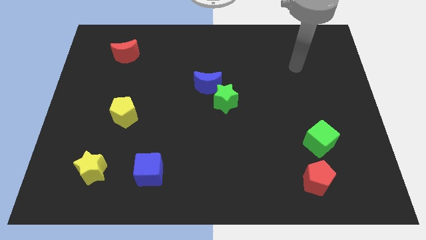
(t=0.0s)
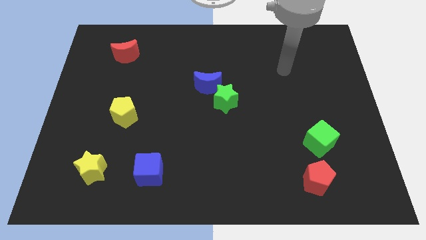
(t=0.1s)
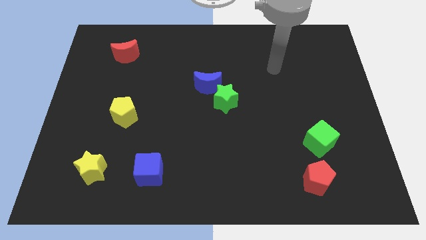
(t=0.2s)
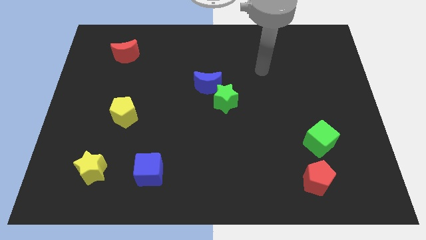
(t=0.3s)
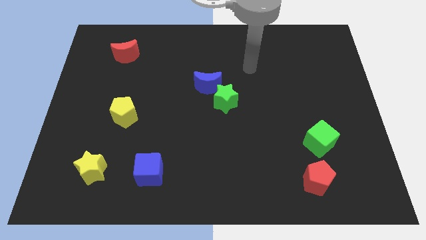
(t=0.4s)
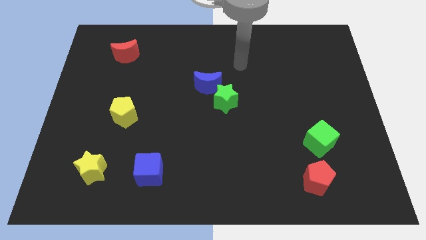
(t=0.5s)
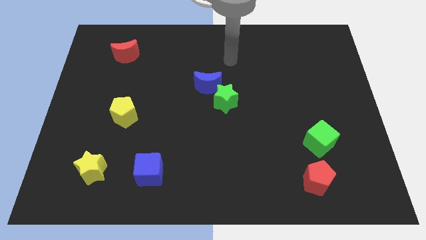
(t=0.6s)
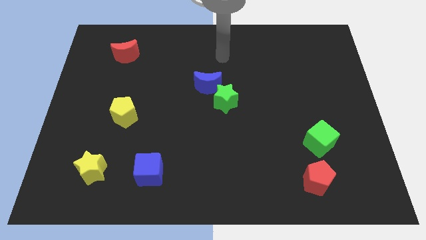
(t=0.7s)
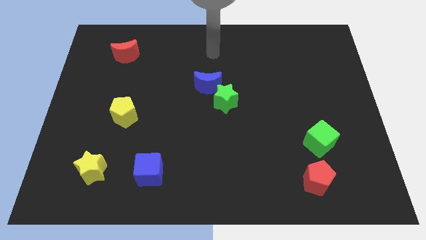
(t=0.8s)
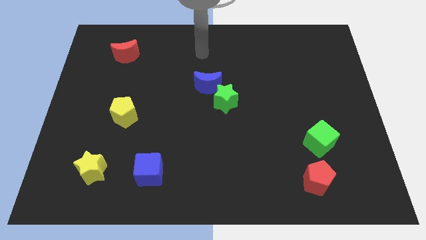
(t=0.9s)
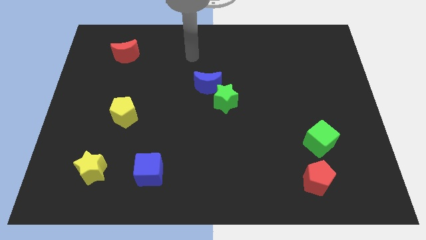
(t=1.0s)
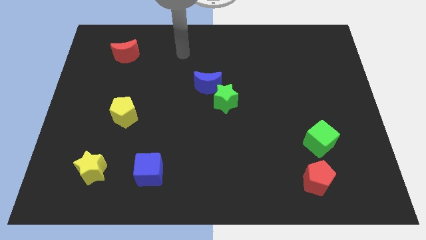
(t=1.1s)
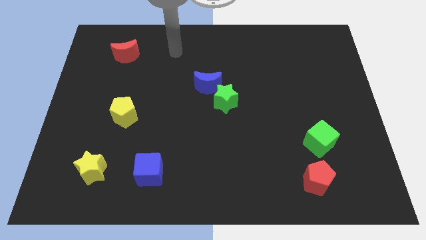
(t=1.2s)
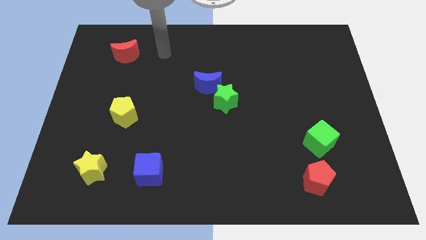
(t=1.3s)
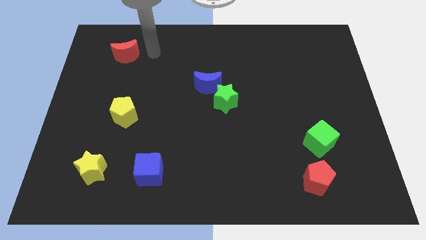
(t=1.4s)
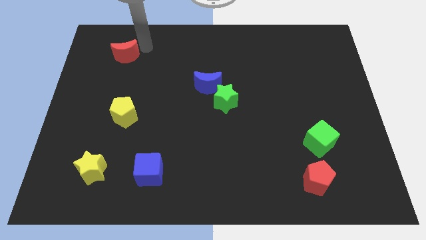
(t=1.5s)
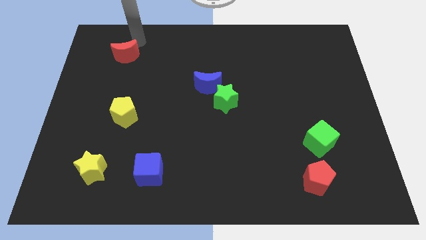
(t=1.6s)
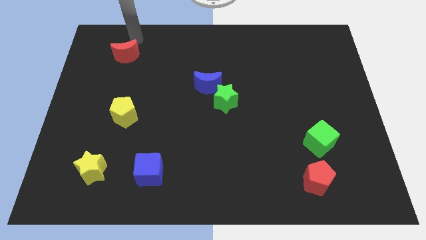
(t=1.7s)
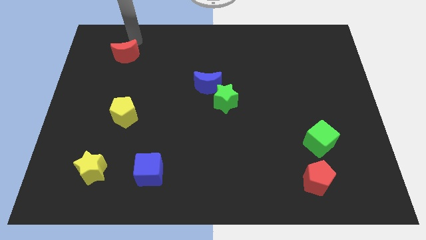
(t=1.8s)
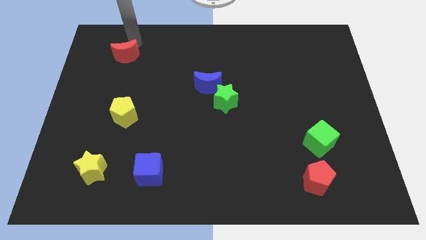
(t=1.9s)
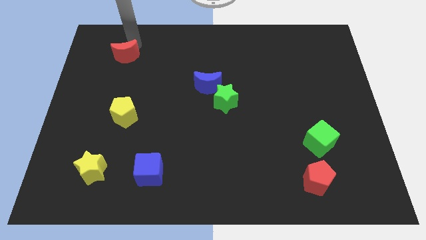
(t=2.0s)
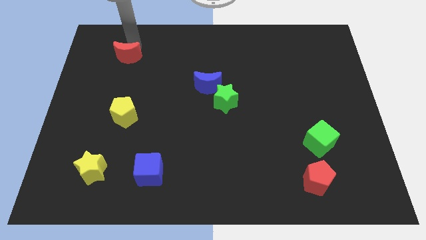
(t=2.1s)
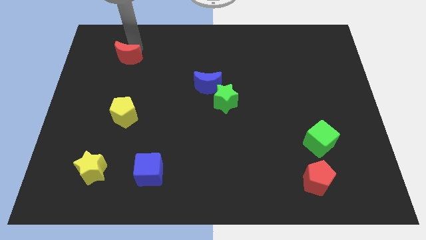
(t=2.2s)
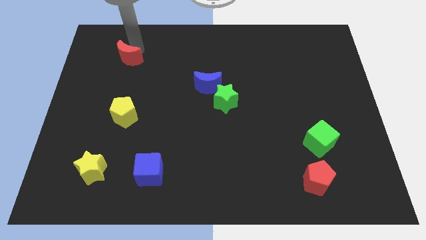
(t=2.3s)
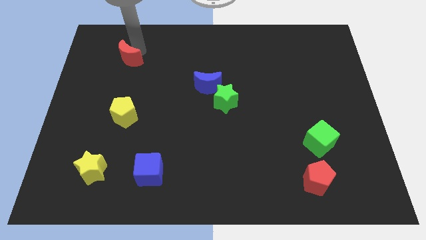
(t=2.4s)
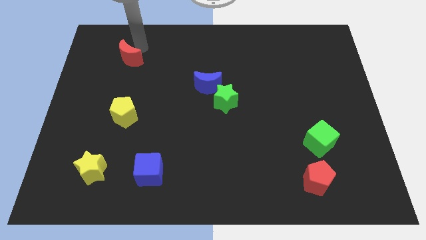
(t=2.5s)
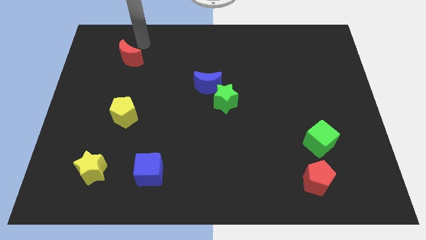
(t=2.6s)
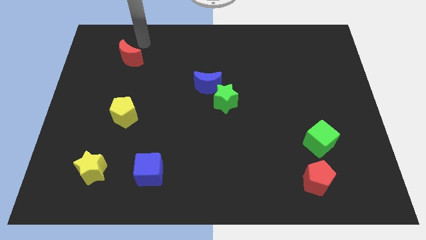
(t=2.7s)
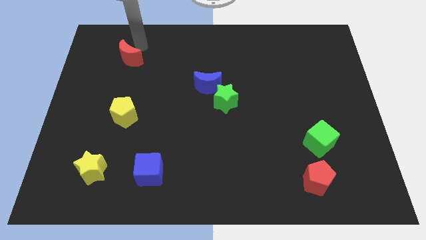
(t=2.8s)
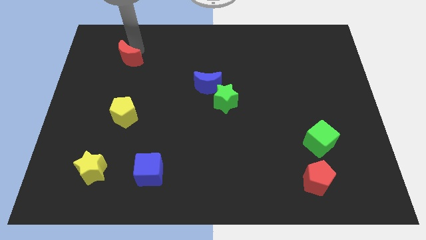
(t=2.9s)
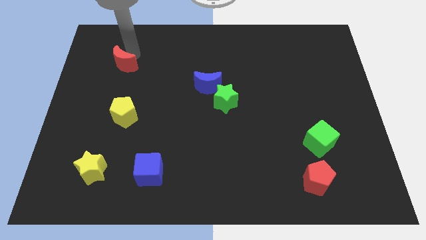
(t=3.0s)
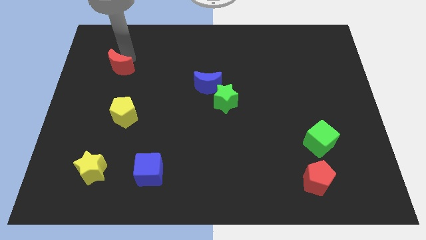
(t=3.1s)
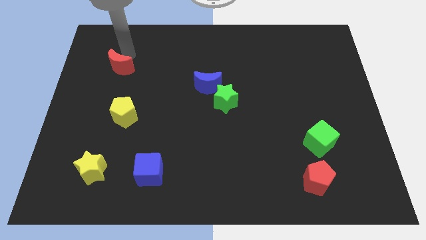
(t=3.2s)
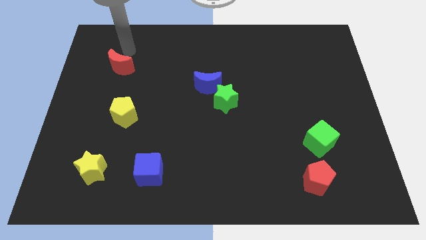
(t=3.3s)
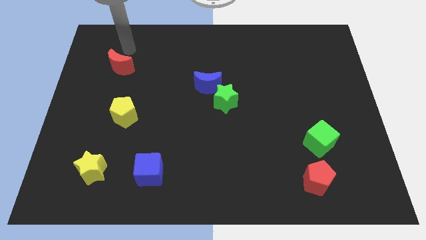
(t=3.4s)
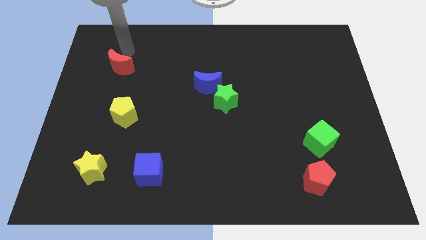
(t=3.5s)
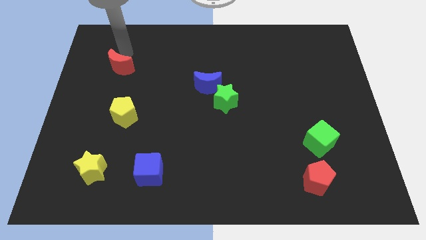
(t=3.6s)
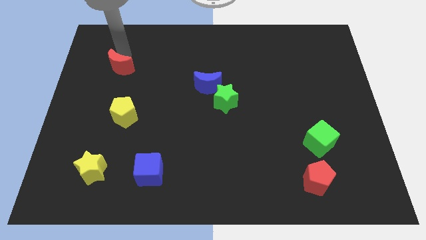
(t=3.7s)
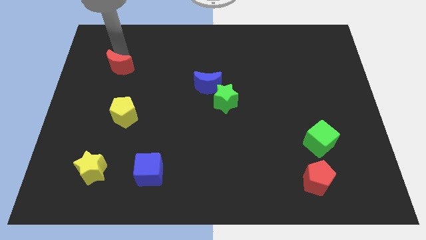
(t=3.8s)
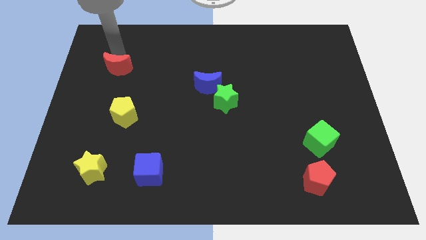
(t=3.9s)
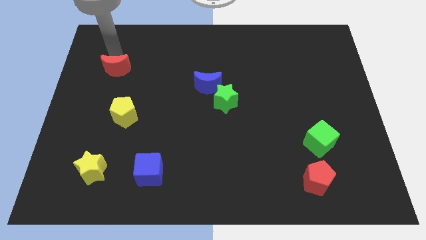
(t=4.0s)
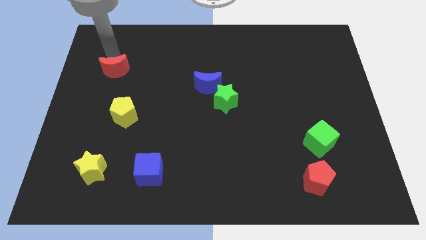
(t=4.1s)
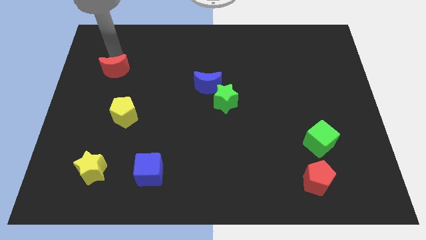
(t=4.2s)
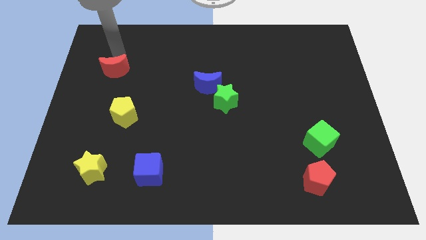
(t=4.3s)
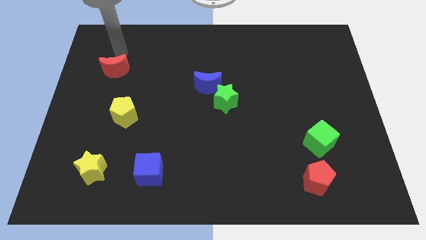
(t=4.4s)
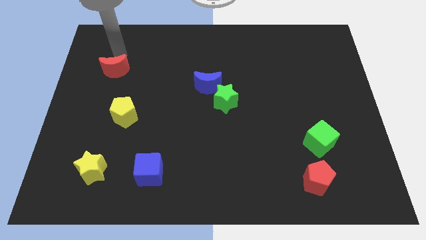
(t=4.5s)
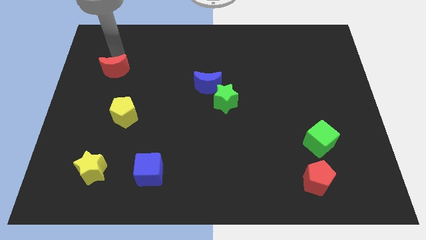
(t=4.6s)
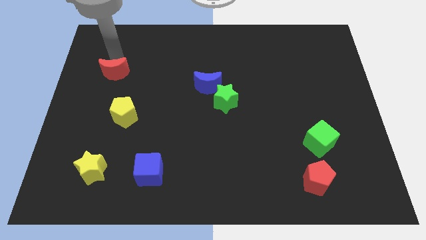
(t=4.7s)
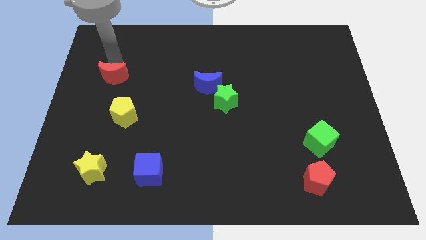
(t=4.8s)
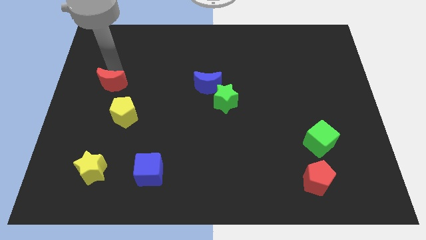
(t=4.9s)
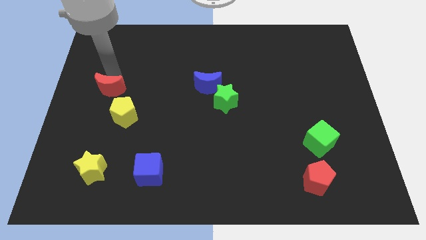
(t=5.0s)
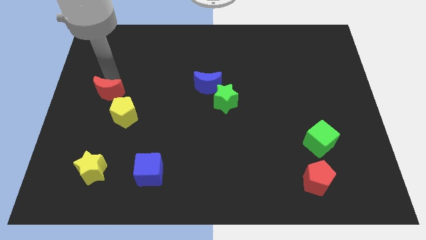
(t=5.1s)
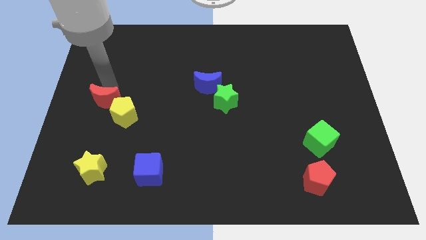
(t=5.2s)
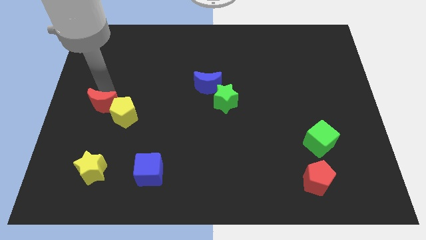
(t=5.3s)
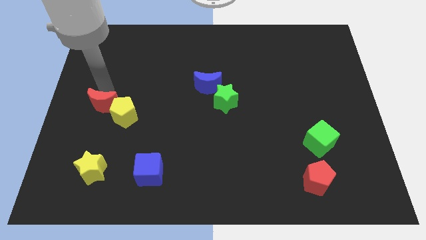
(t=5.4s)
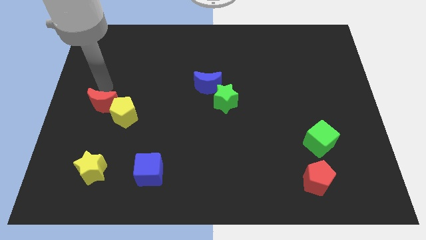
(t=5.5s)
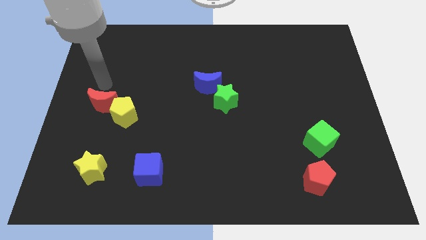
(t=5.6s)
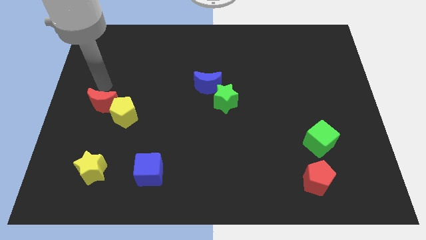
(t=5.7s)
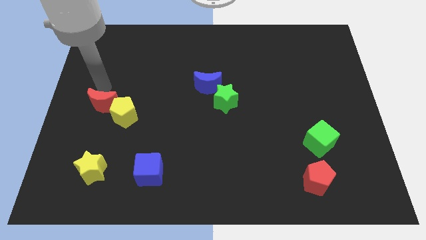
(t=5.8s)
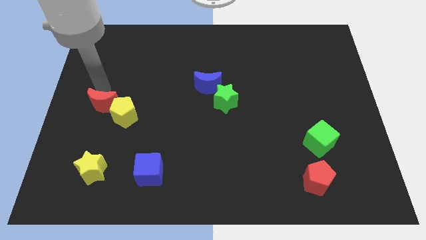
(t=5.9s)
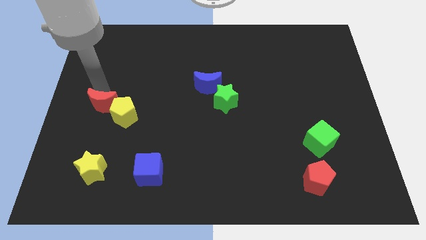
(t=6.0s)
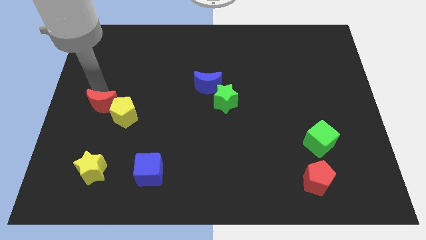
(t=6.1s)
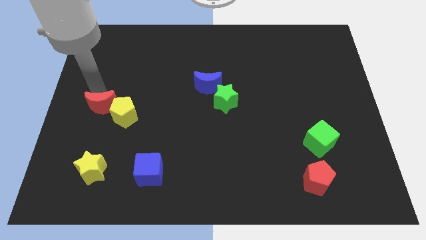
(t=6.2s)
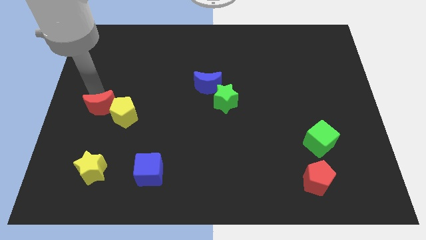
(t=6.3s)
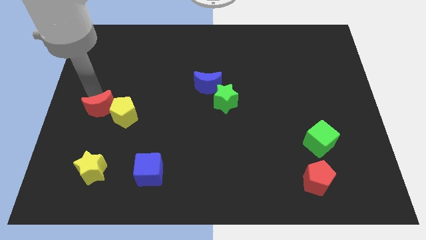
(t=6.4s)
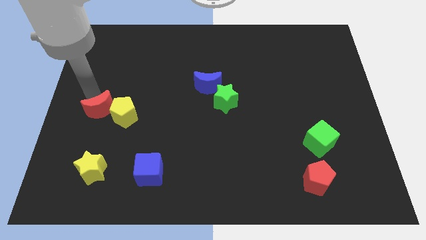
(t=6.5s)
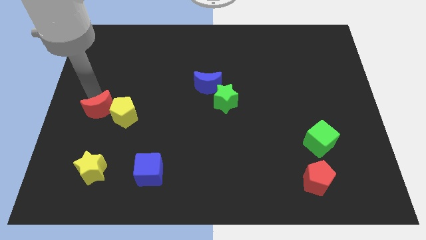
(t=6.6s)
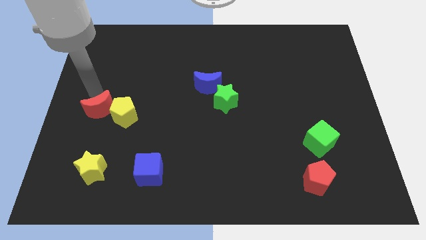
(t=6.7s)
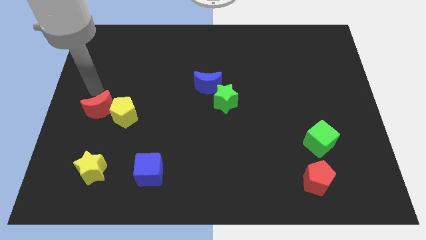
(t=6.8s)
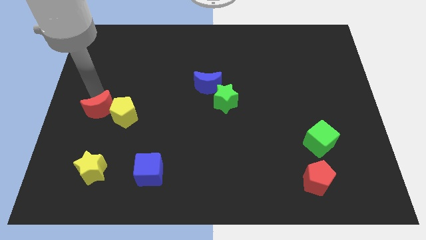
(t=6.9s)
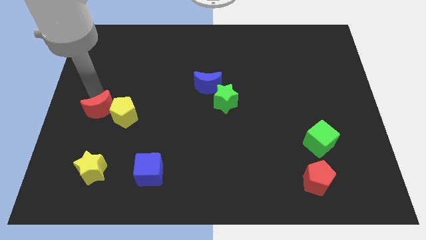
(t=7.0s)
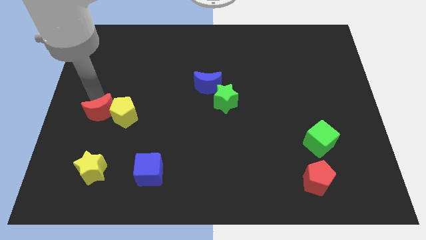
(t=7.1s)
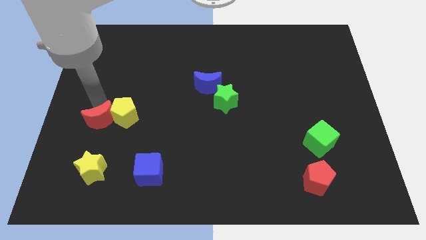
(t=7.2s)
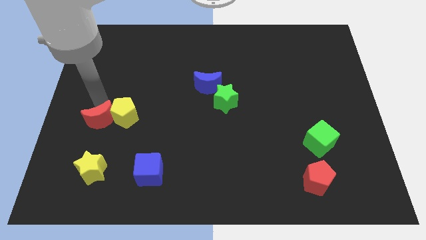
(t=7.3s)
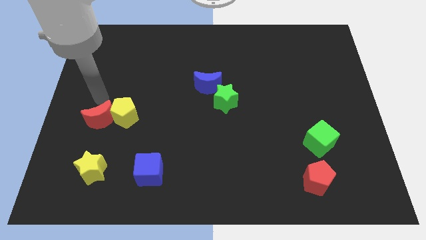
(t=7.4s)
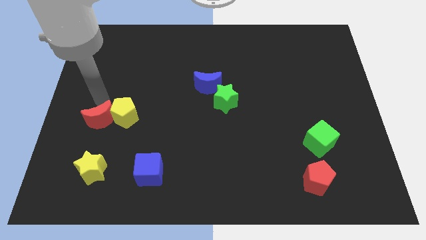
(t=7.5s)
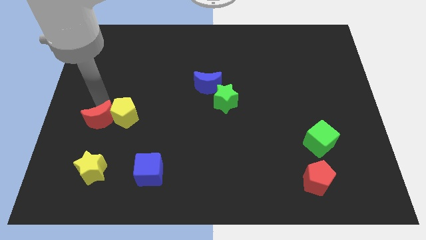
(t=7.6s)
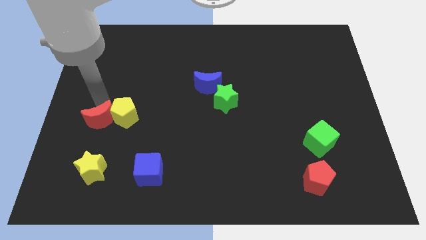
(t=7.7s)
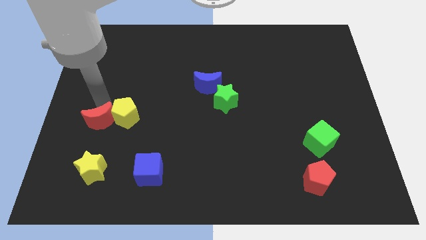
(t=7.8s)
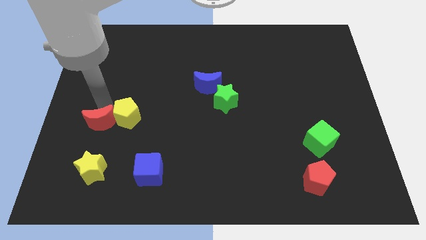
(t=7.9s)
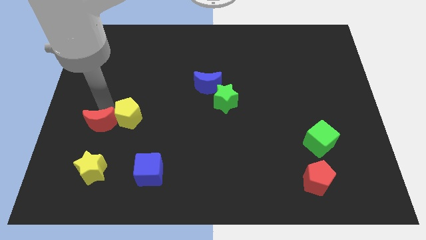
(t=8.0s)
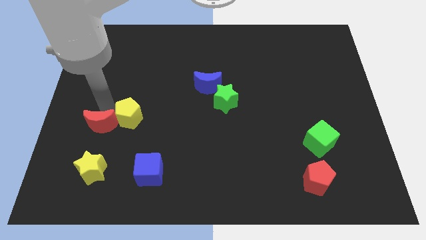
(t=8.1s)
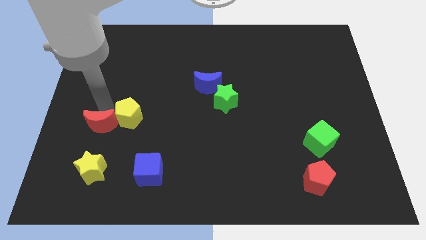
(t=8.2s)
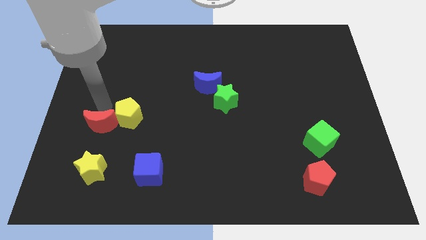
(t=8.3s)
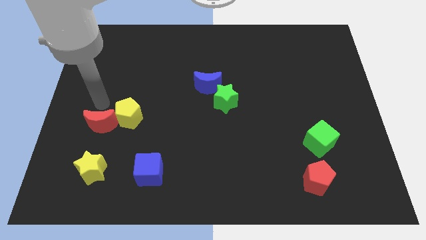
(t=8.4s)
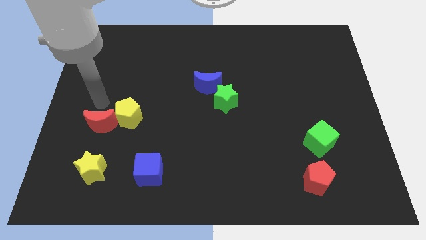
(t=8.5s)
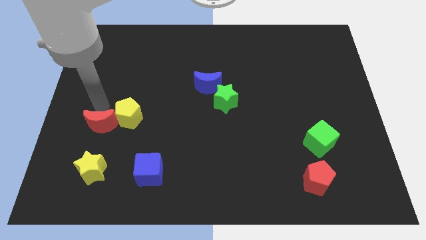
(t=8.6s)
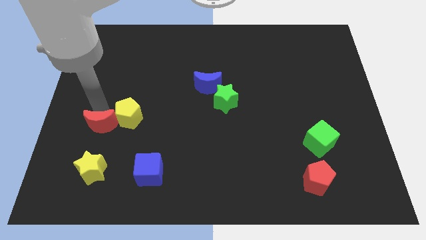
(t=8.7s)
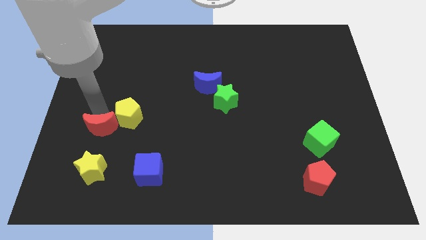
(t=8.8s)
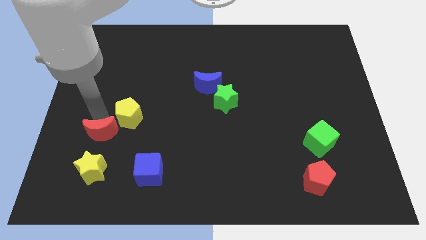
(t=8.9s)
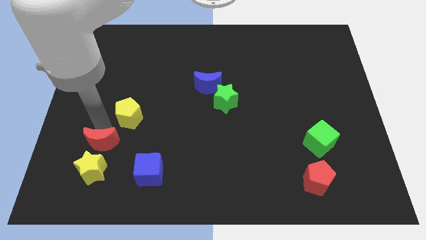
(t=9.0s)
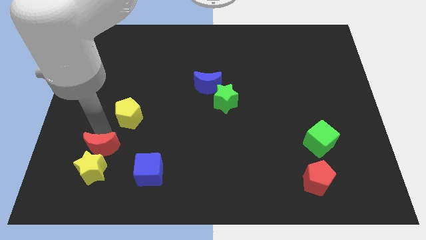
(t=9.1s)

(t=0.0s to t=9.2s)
move the red moon next to the yellow star
